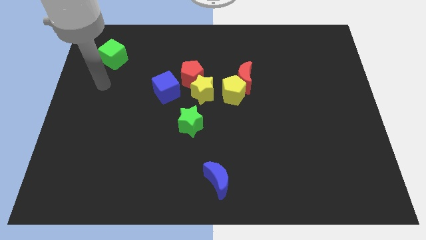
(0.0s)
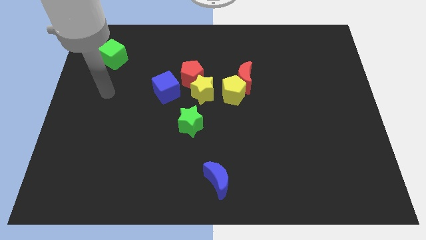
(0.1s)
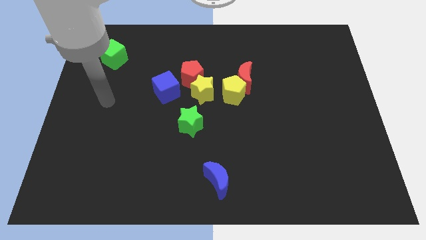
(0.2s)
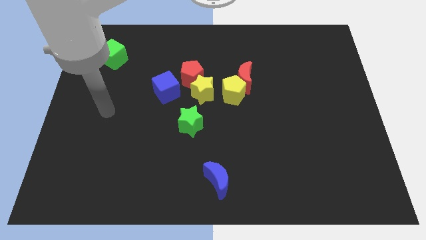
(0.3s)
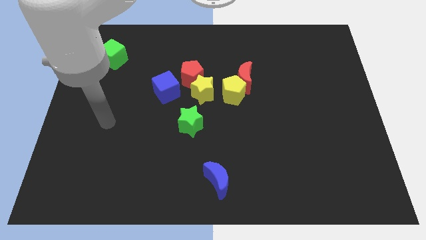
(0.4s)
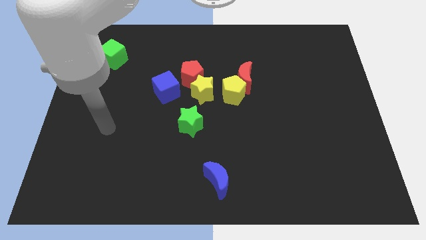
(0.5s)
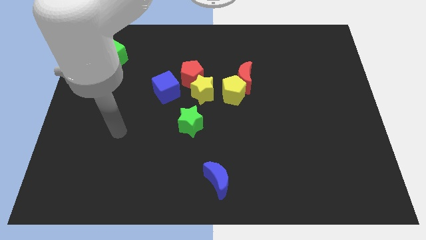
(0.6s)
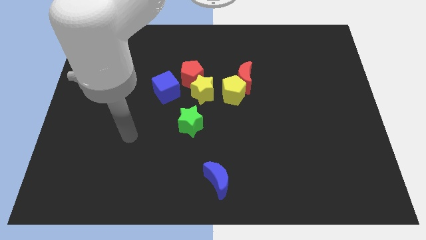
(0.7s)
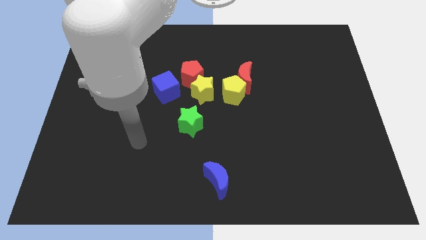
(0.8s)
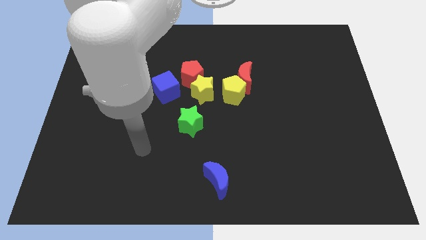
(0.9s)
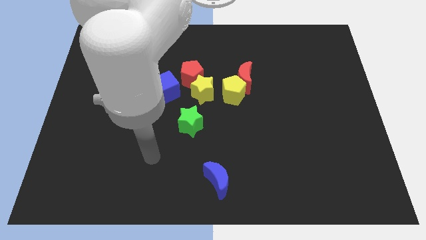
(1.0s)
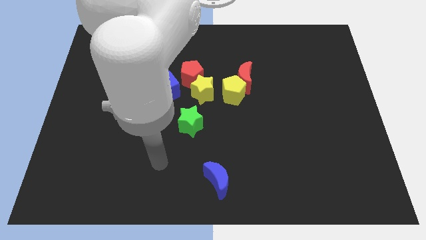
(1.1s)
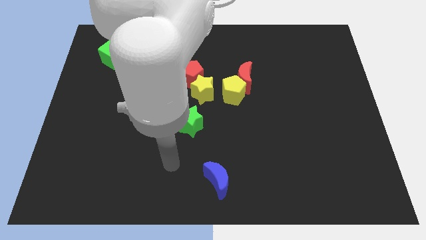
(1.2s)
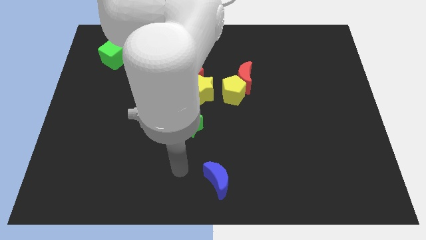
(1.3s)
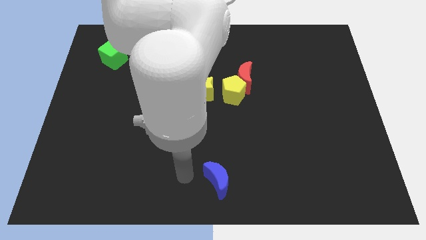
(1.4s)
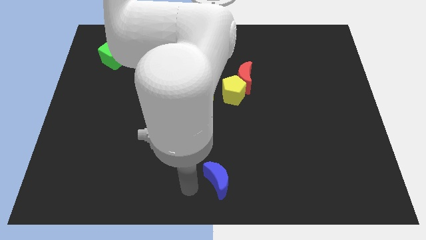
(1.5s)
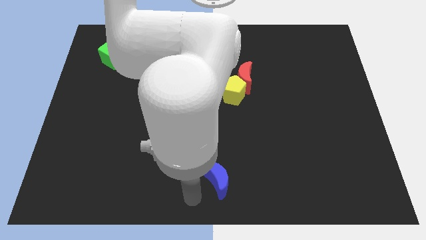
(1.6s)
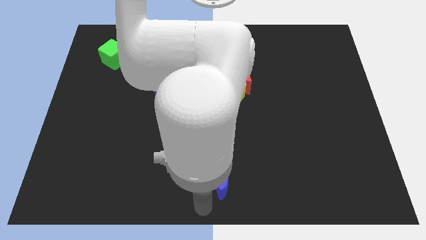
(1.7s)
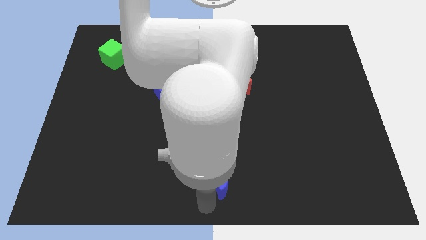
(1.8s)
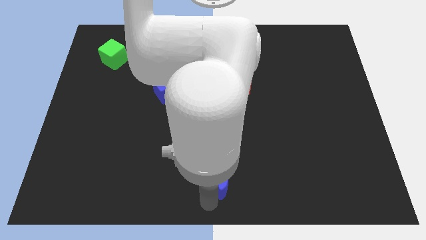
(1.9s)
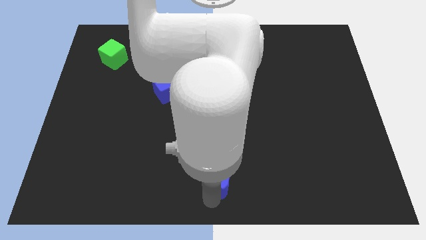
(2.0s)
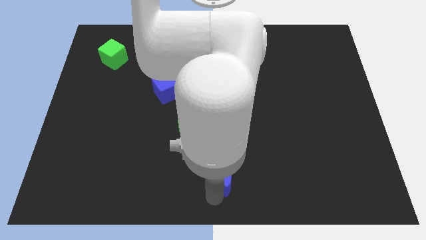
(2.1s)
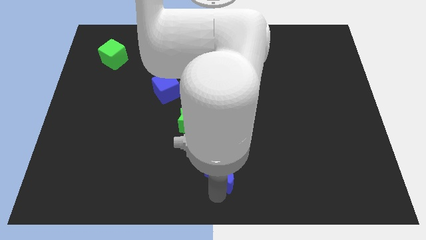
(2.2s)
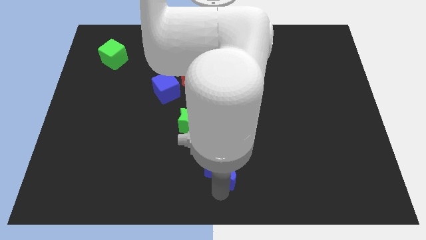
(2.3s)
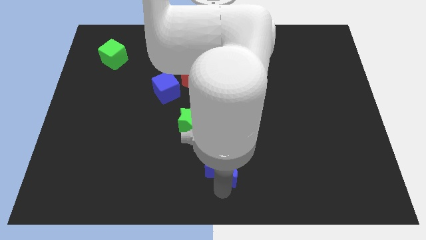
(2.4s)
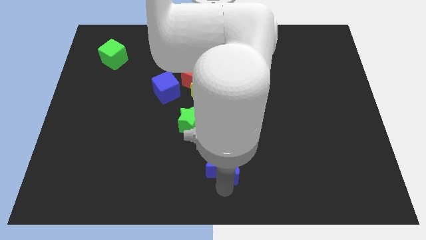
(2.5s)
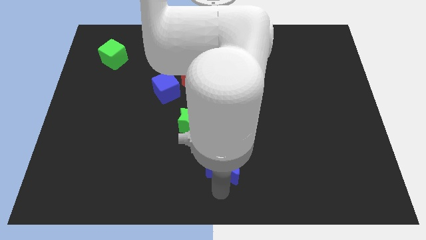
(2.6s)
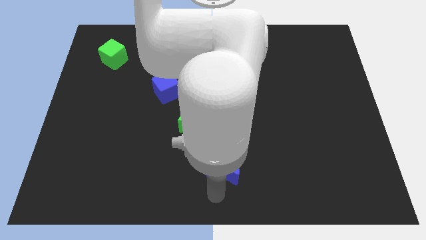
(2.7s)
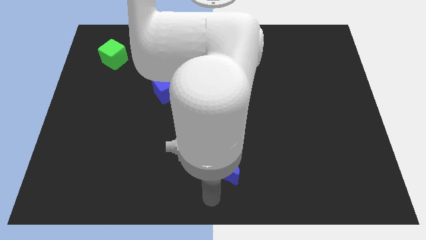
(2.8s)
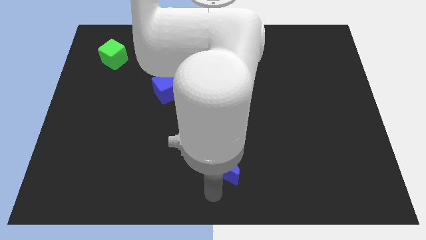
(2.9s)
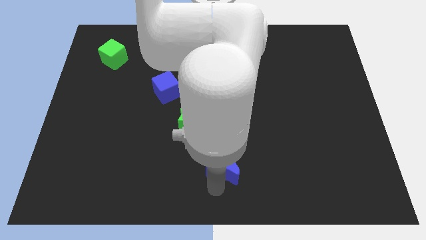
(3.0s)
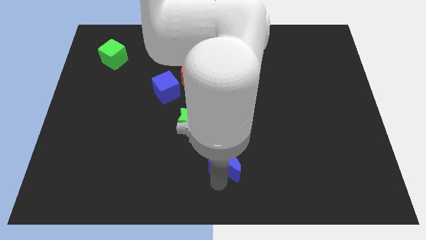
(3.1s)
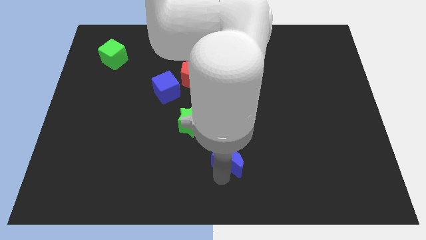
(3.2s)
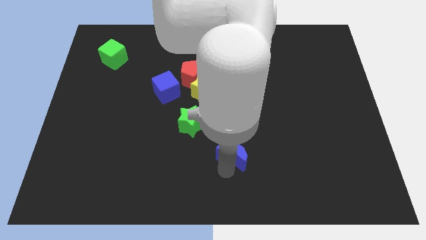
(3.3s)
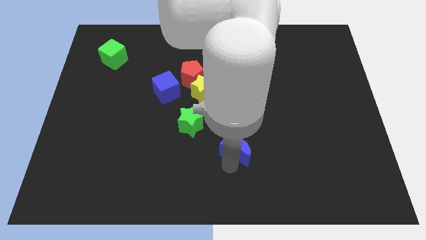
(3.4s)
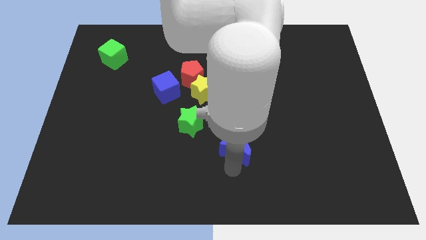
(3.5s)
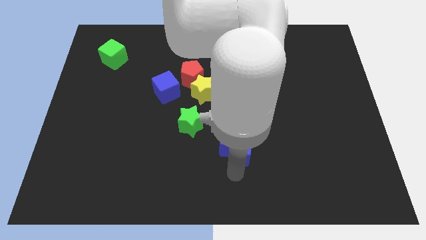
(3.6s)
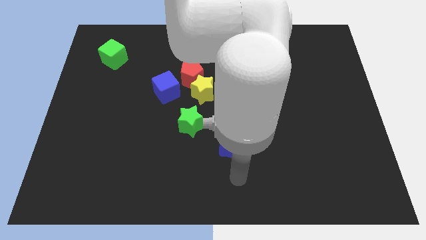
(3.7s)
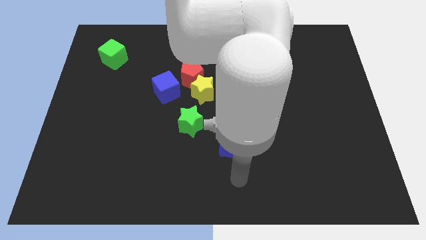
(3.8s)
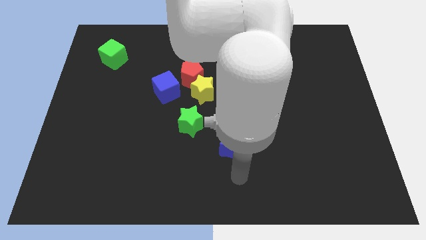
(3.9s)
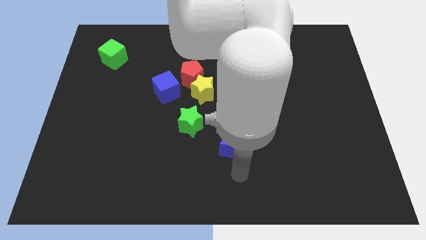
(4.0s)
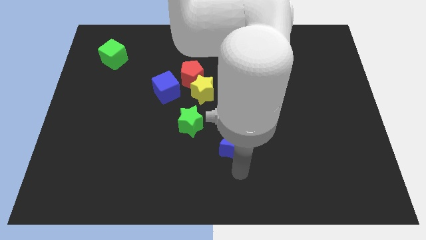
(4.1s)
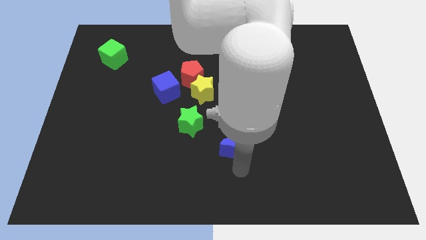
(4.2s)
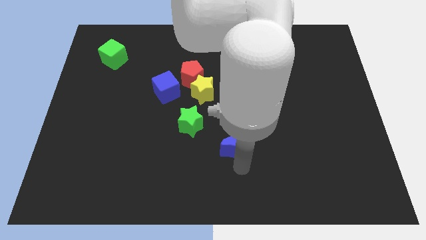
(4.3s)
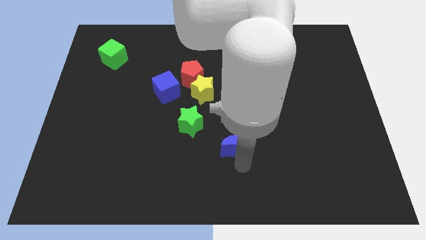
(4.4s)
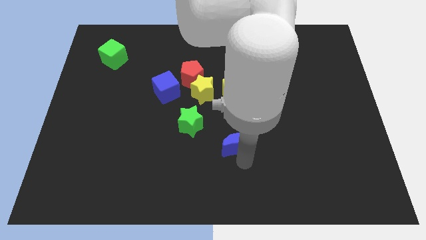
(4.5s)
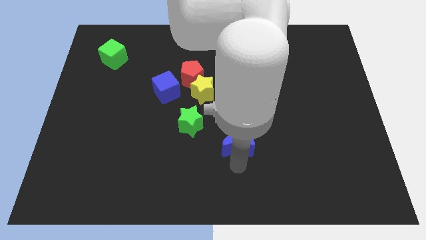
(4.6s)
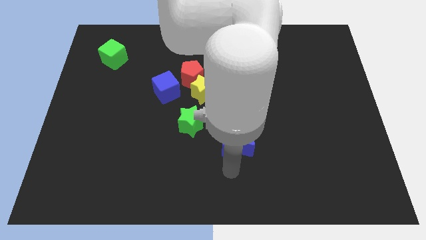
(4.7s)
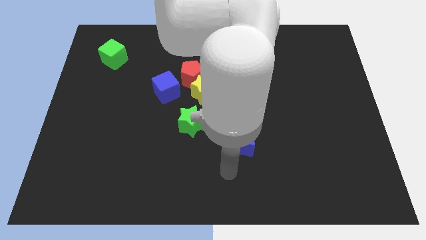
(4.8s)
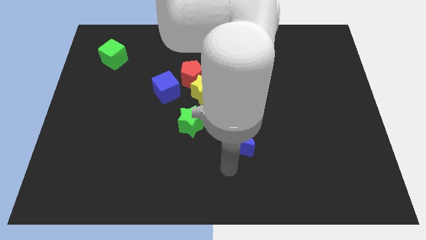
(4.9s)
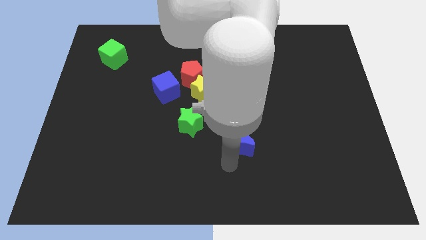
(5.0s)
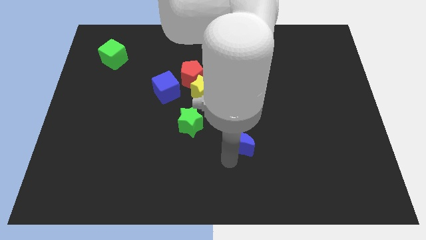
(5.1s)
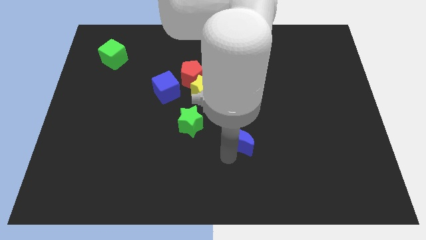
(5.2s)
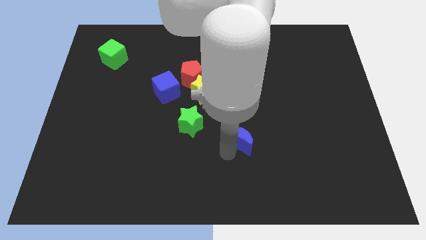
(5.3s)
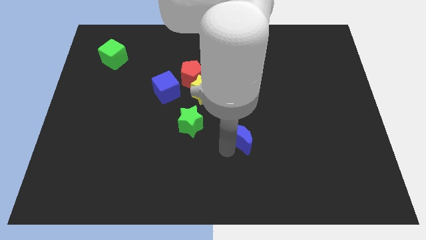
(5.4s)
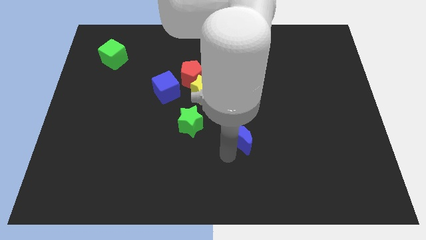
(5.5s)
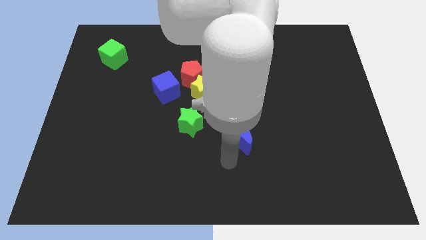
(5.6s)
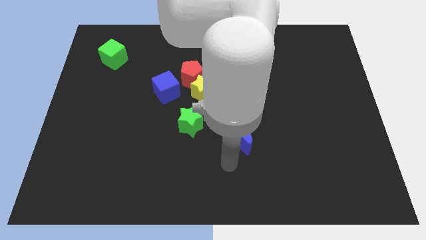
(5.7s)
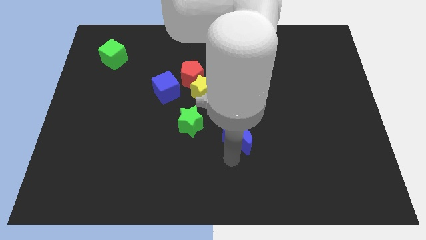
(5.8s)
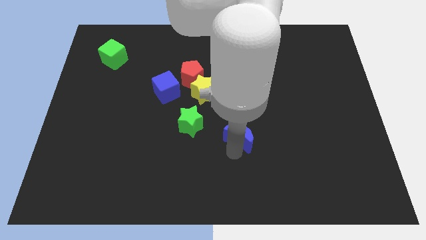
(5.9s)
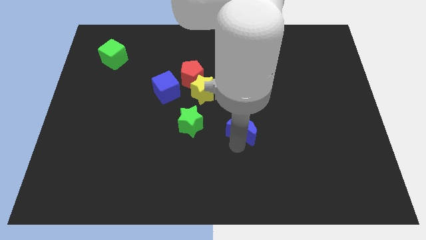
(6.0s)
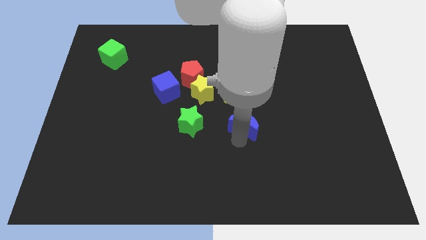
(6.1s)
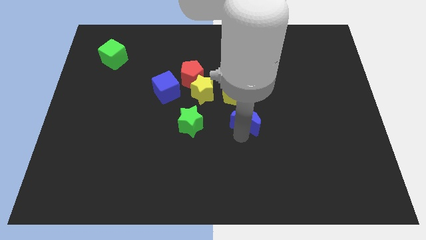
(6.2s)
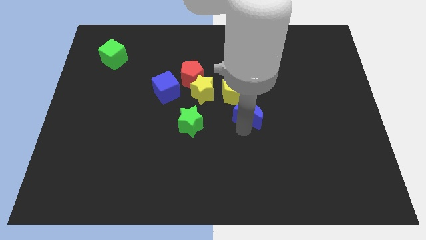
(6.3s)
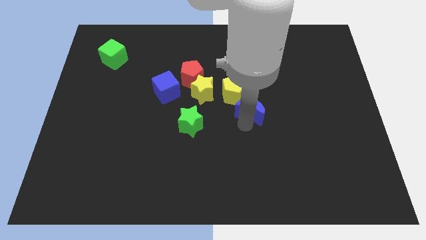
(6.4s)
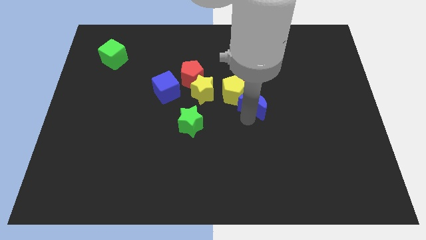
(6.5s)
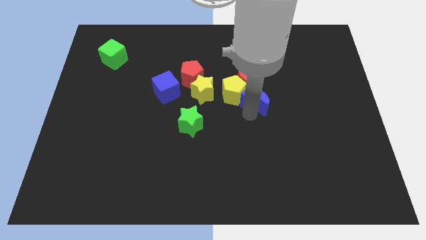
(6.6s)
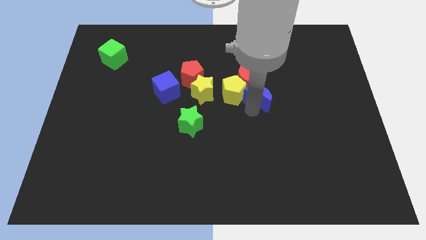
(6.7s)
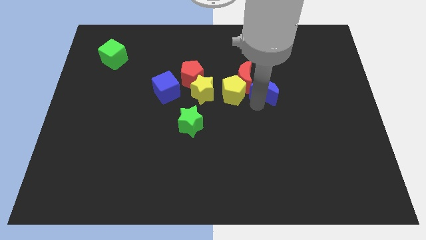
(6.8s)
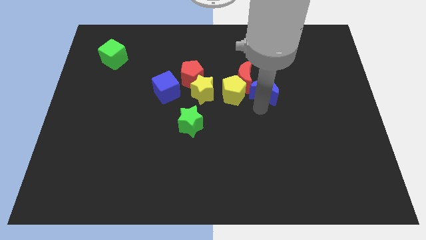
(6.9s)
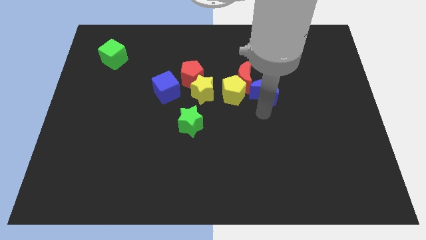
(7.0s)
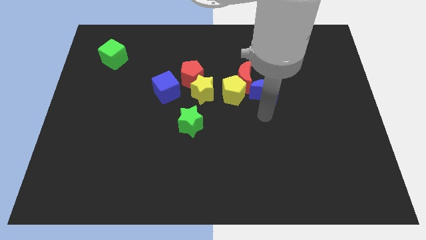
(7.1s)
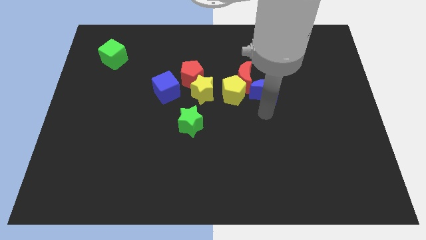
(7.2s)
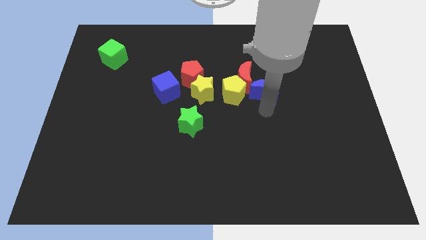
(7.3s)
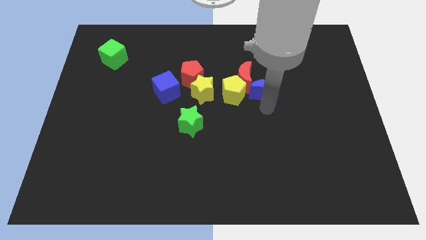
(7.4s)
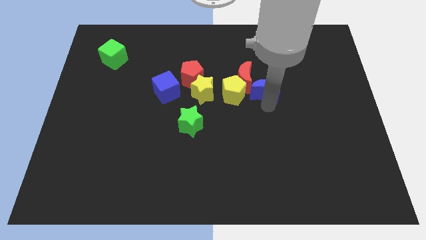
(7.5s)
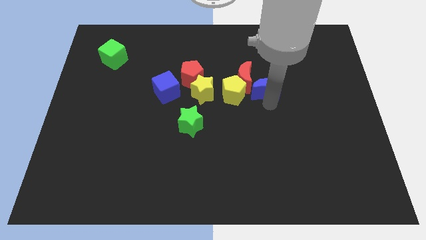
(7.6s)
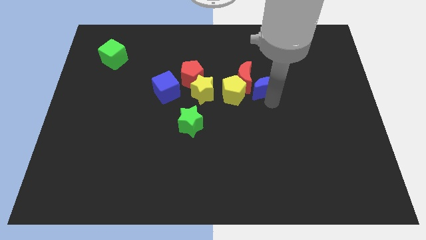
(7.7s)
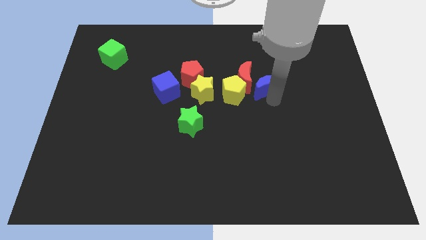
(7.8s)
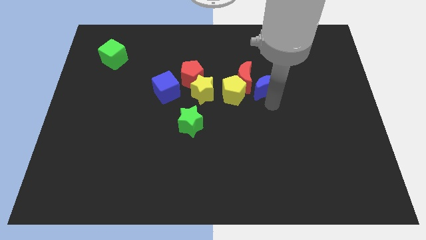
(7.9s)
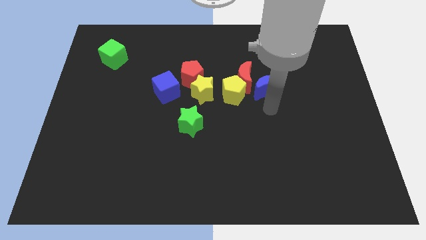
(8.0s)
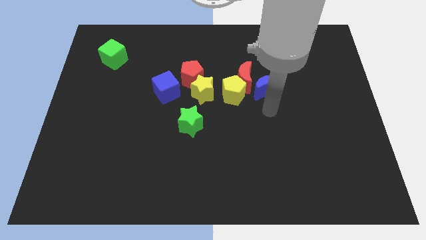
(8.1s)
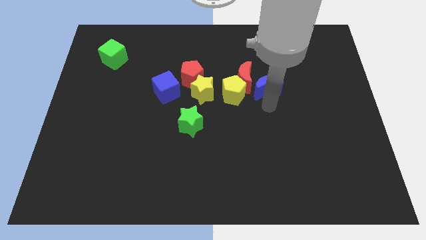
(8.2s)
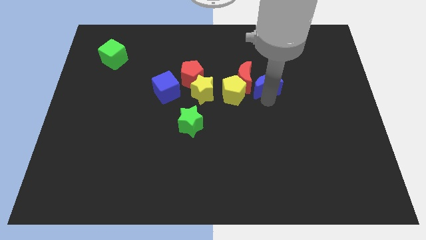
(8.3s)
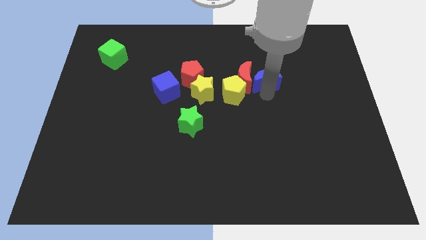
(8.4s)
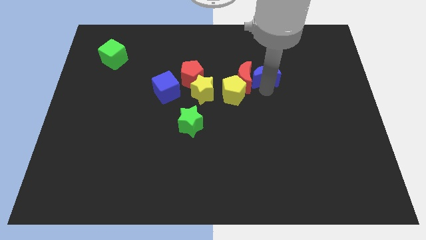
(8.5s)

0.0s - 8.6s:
slide the blue moon upwards
